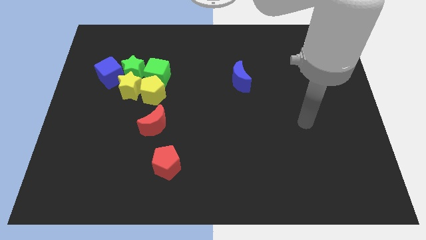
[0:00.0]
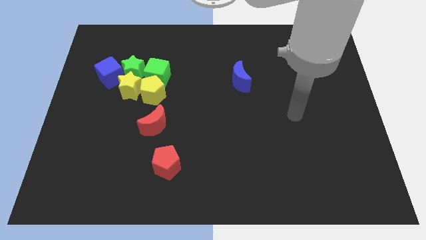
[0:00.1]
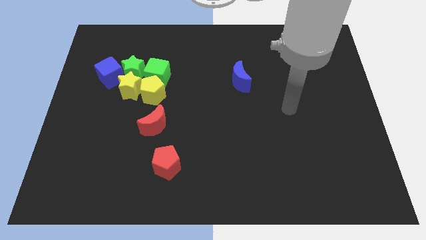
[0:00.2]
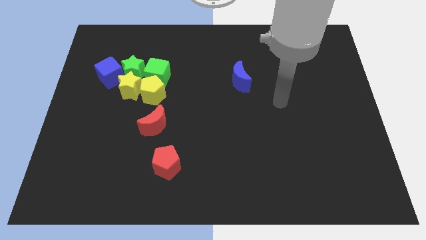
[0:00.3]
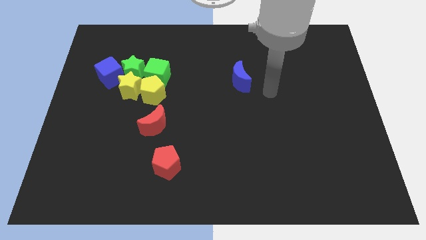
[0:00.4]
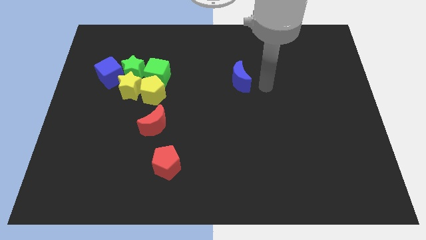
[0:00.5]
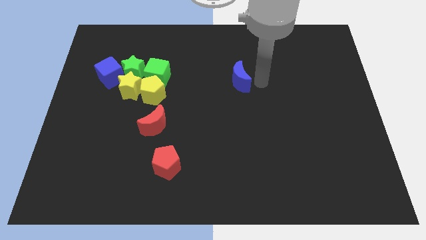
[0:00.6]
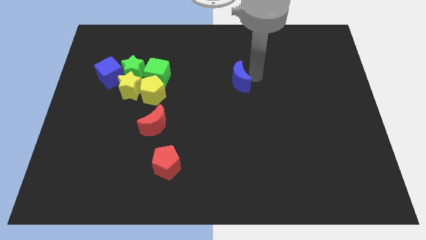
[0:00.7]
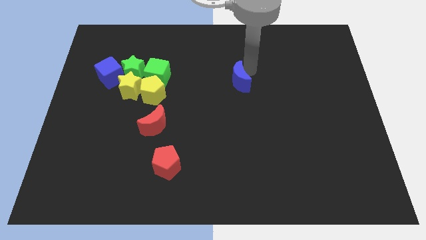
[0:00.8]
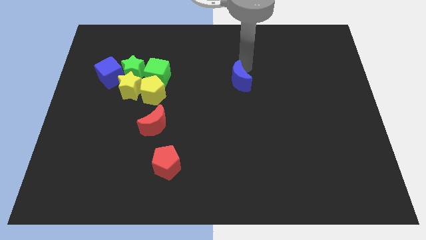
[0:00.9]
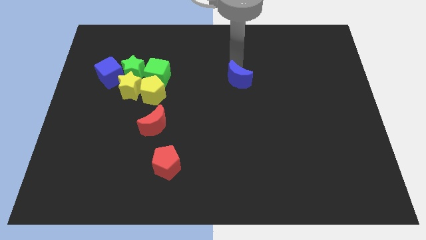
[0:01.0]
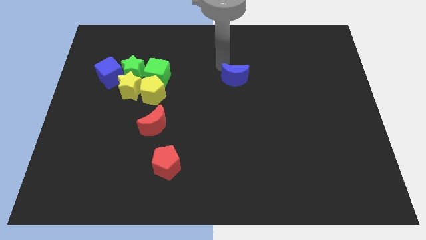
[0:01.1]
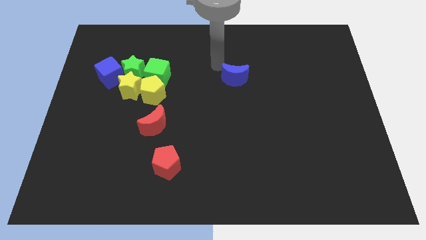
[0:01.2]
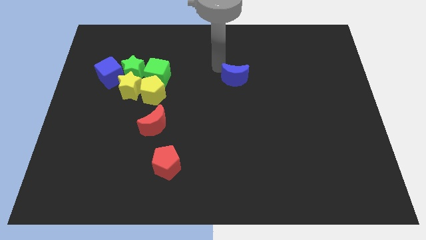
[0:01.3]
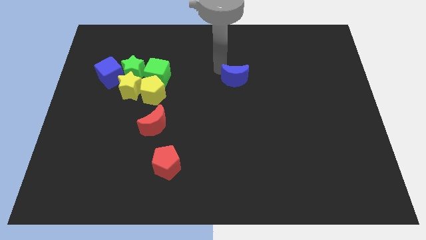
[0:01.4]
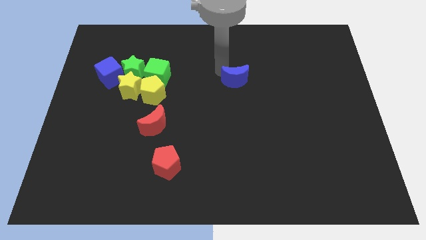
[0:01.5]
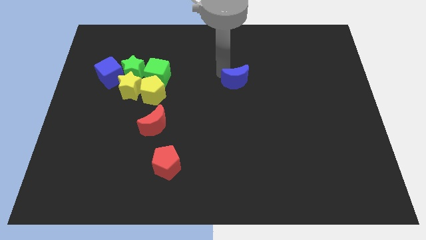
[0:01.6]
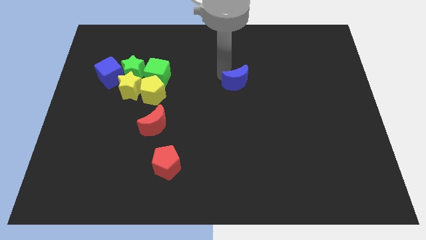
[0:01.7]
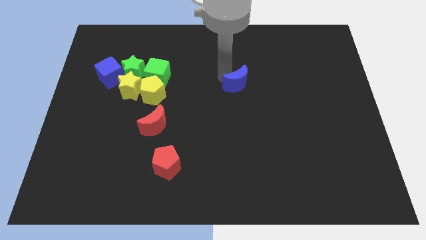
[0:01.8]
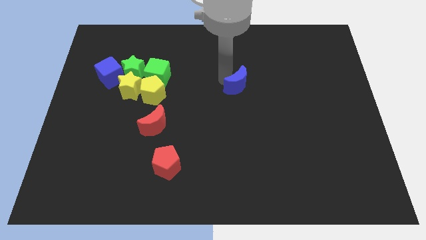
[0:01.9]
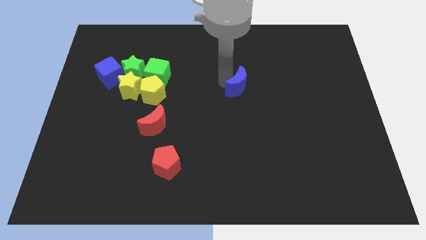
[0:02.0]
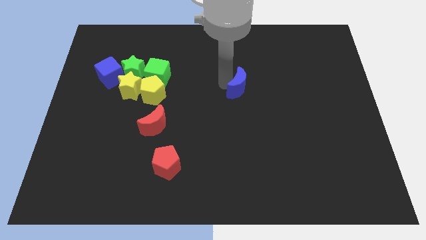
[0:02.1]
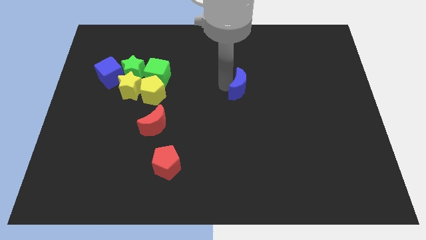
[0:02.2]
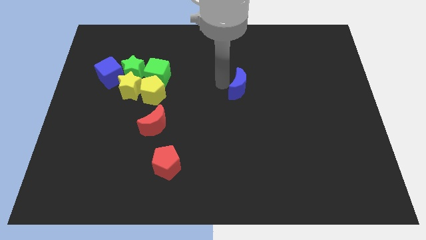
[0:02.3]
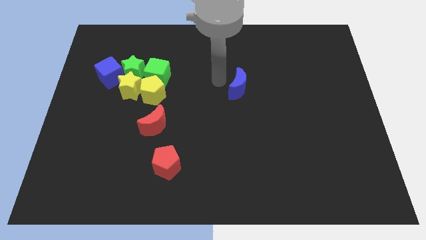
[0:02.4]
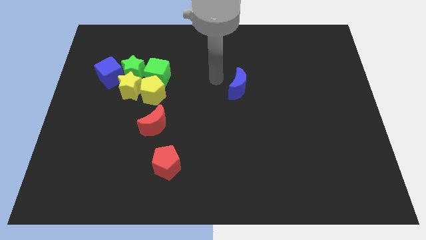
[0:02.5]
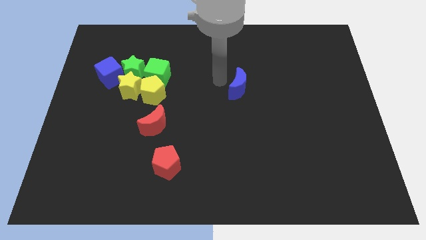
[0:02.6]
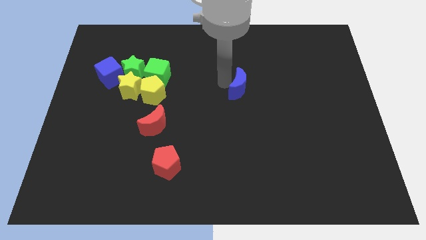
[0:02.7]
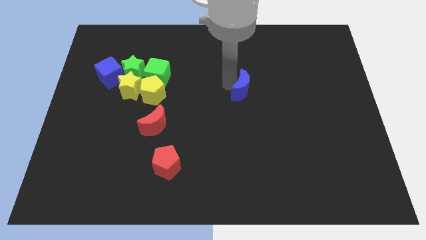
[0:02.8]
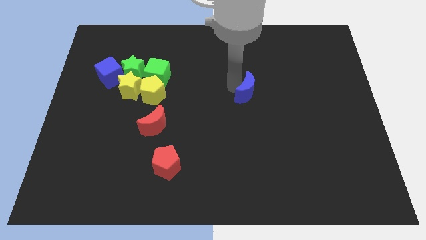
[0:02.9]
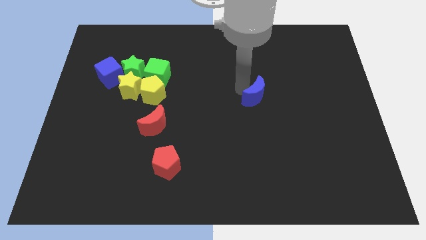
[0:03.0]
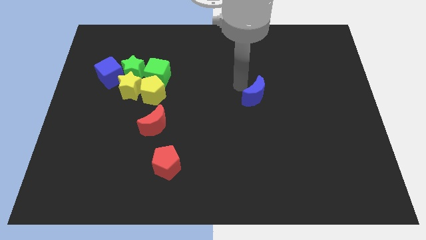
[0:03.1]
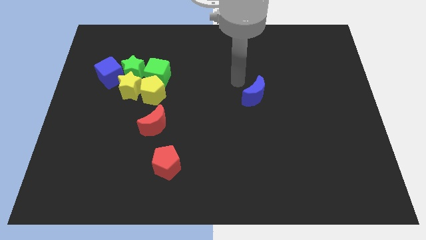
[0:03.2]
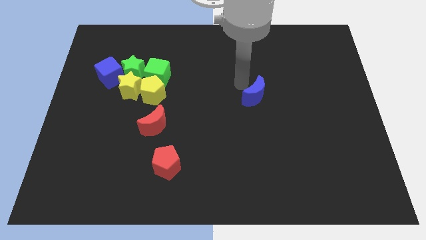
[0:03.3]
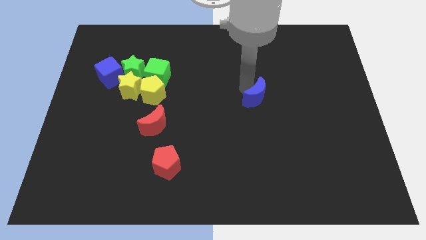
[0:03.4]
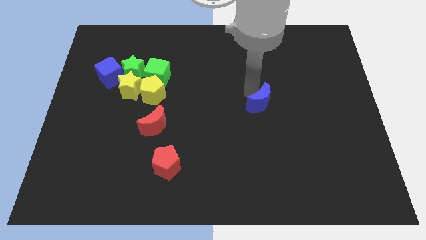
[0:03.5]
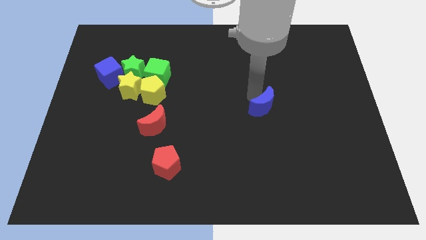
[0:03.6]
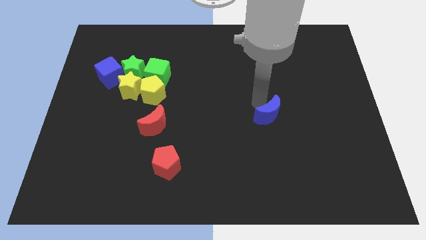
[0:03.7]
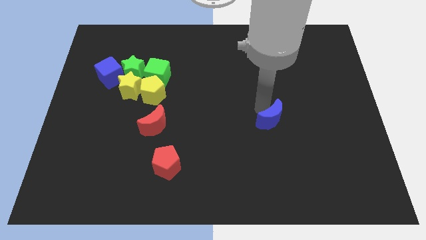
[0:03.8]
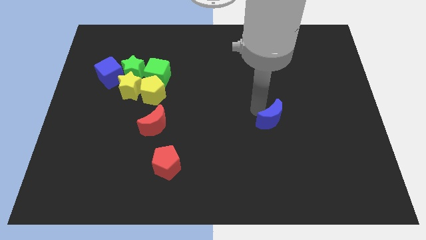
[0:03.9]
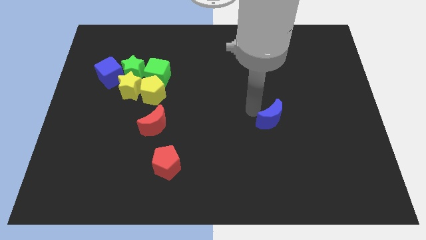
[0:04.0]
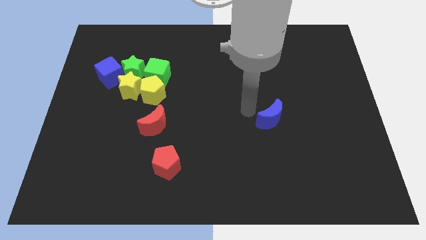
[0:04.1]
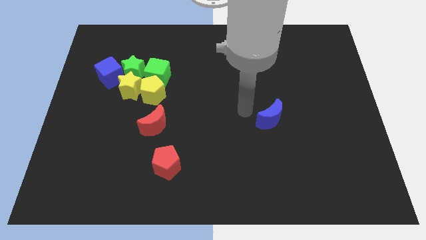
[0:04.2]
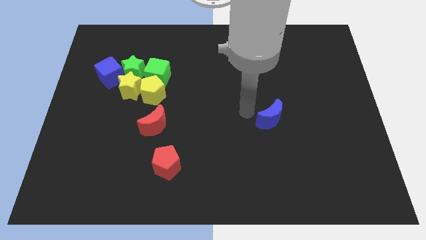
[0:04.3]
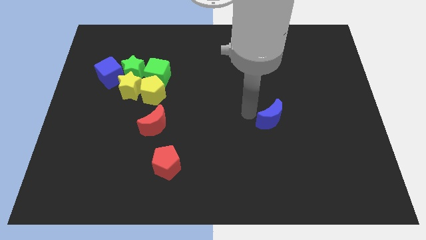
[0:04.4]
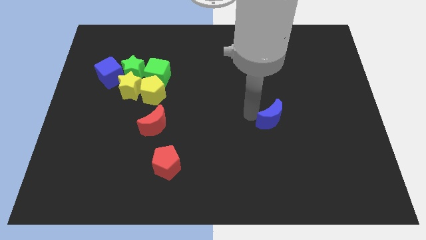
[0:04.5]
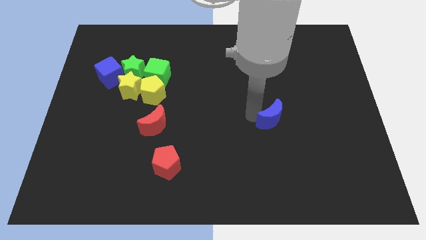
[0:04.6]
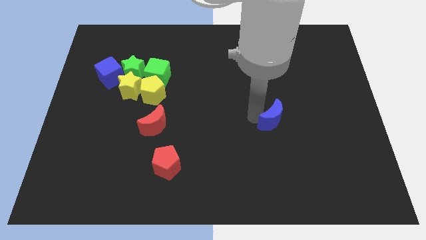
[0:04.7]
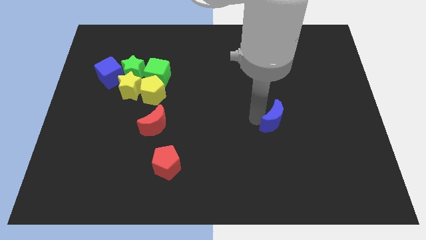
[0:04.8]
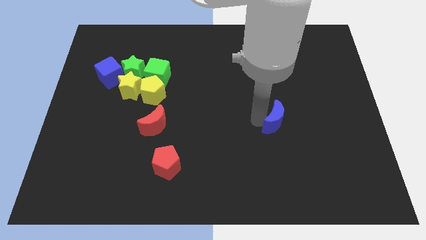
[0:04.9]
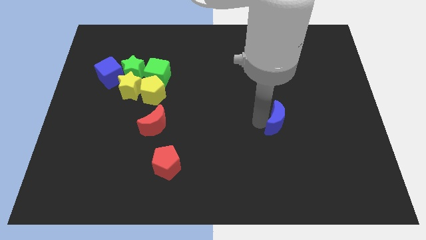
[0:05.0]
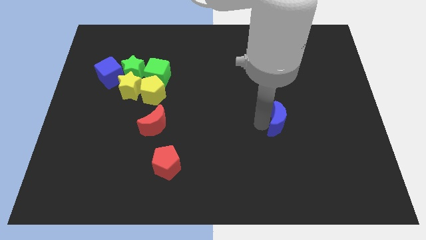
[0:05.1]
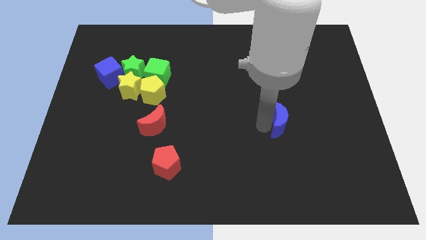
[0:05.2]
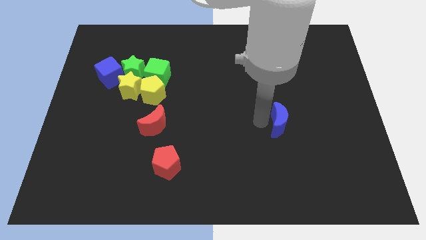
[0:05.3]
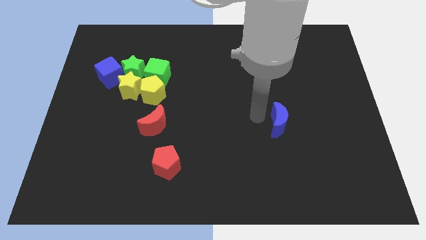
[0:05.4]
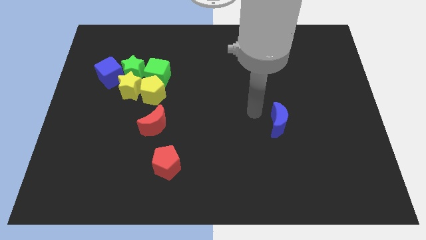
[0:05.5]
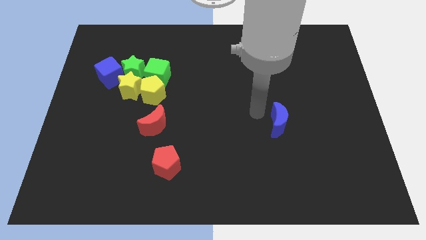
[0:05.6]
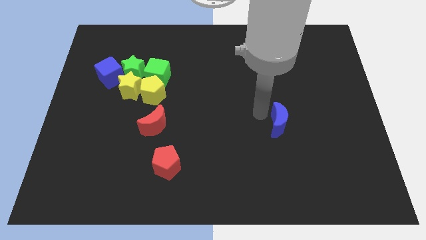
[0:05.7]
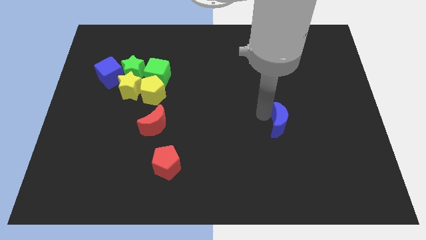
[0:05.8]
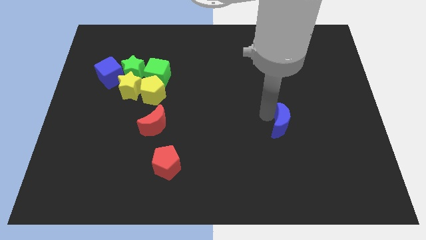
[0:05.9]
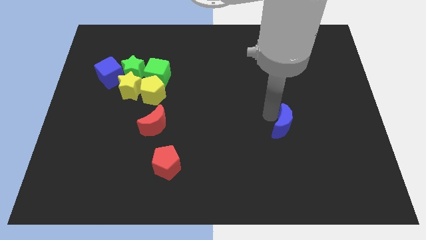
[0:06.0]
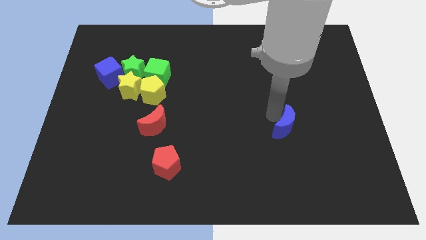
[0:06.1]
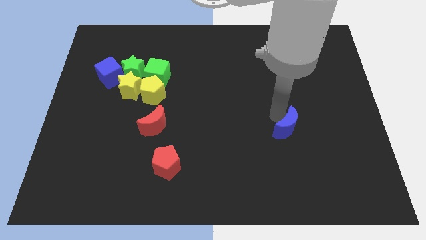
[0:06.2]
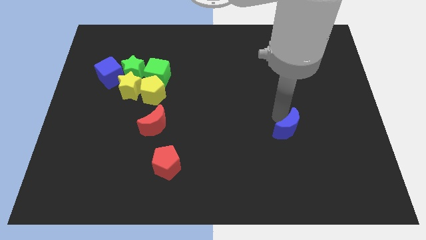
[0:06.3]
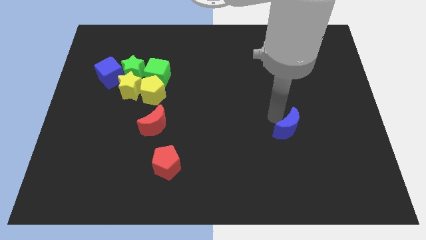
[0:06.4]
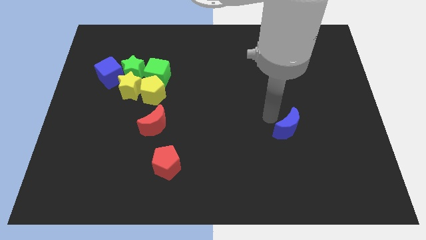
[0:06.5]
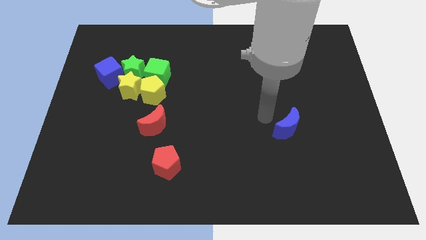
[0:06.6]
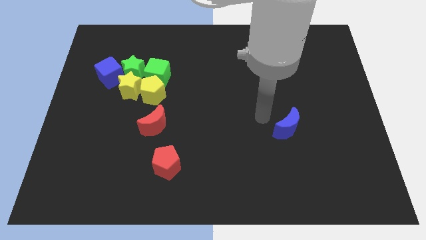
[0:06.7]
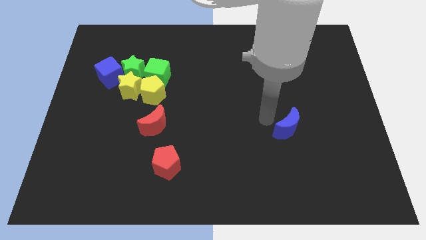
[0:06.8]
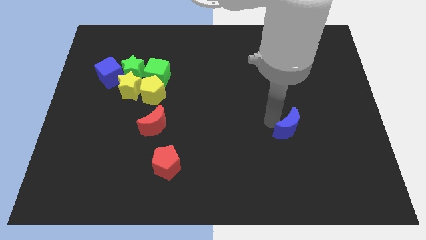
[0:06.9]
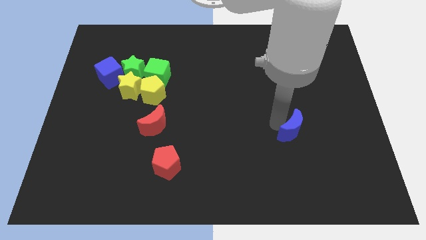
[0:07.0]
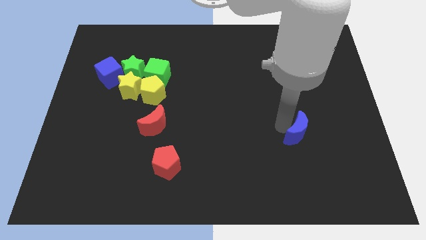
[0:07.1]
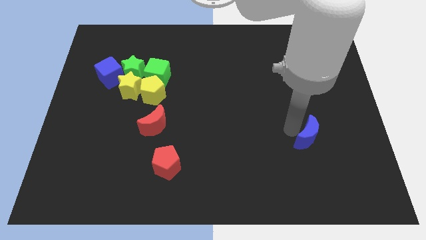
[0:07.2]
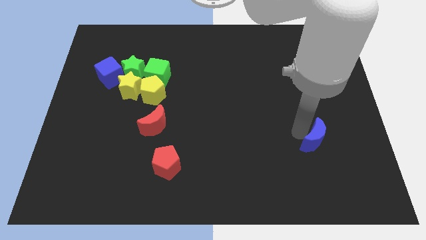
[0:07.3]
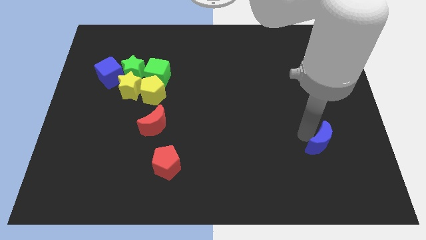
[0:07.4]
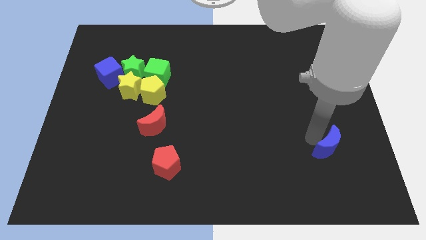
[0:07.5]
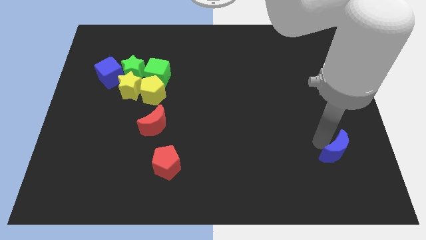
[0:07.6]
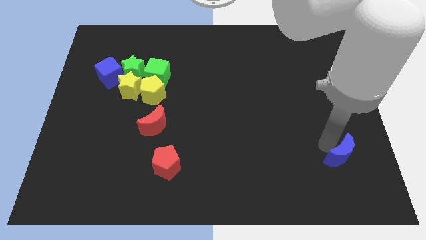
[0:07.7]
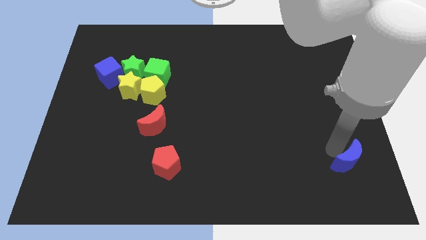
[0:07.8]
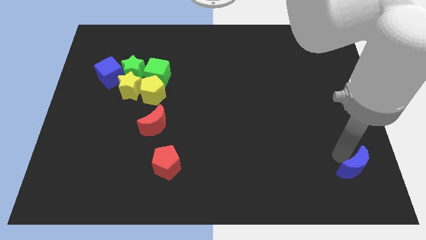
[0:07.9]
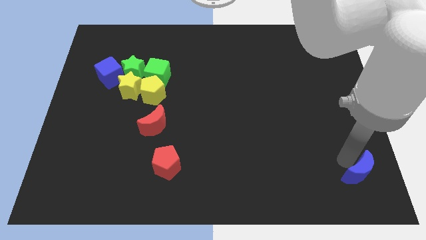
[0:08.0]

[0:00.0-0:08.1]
move the blue moon to the lower right corner
